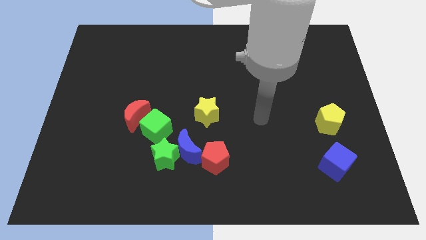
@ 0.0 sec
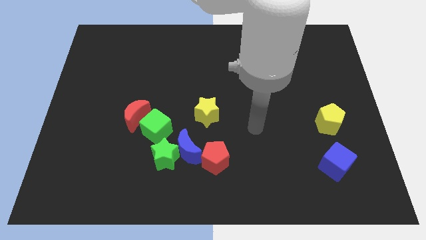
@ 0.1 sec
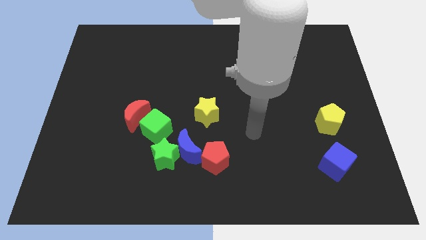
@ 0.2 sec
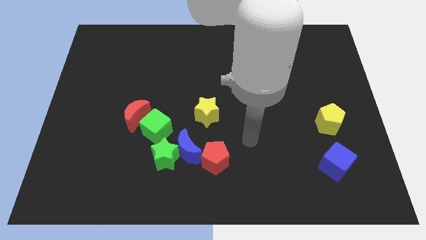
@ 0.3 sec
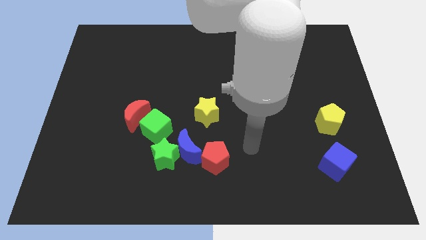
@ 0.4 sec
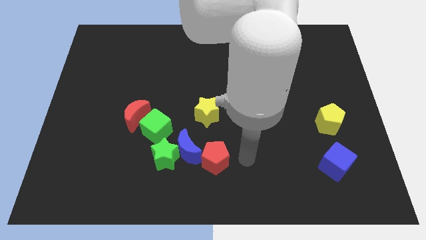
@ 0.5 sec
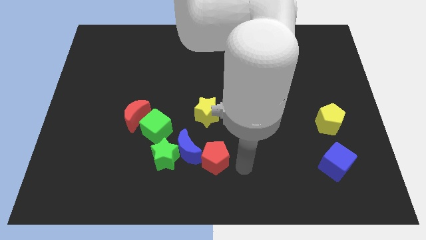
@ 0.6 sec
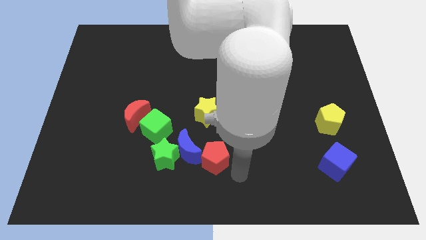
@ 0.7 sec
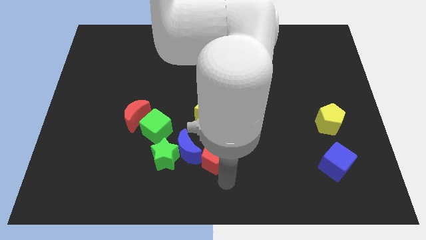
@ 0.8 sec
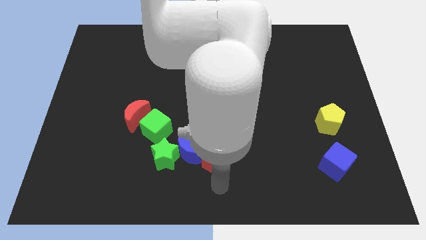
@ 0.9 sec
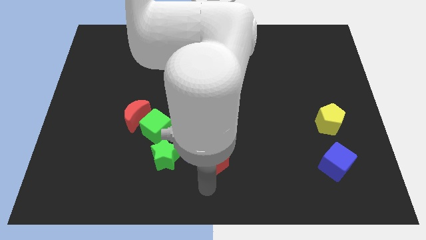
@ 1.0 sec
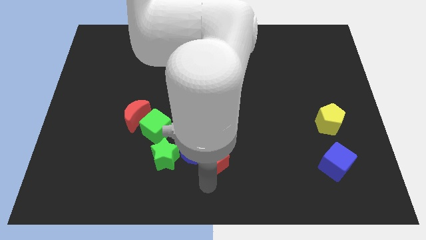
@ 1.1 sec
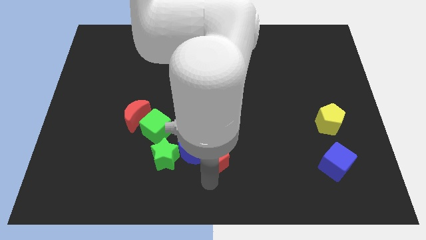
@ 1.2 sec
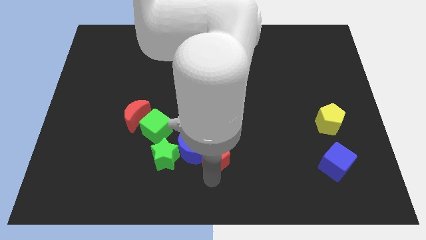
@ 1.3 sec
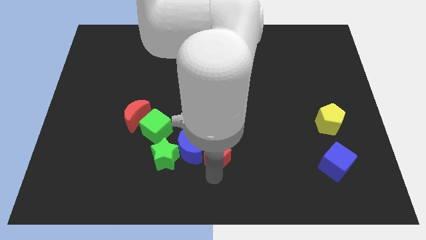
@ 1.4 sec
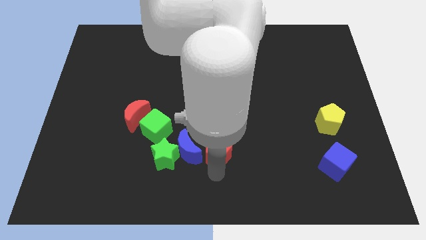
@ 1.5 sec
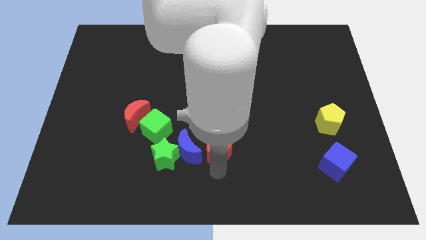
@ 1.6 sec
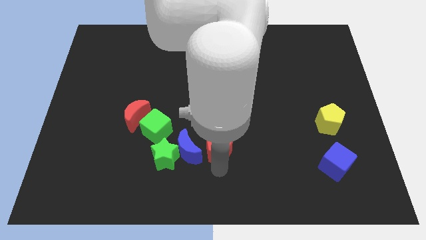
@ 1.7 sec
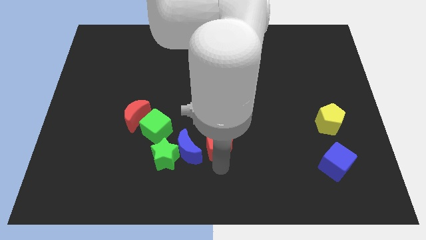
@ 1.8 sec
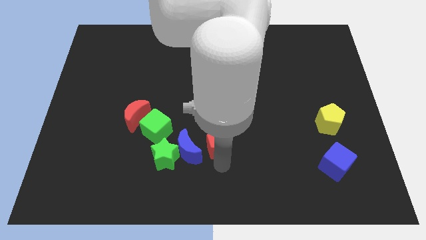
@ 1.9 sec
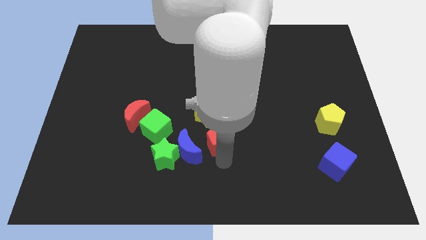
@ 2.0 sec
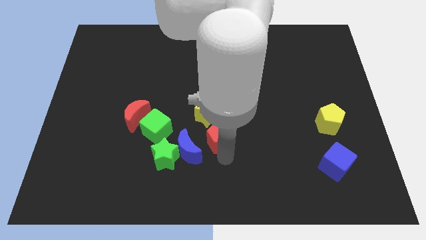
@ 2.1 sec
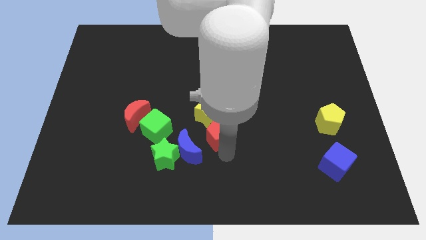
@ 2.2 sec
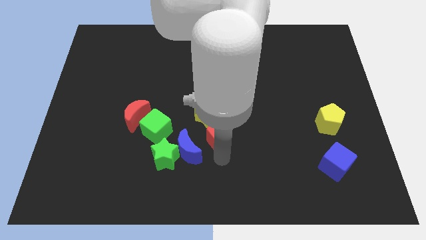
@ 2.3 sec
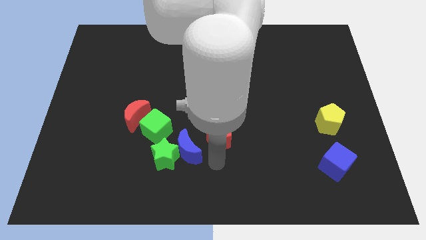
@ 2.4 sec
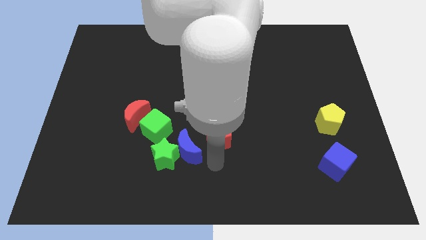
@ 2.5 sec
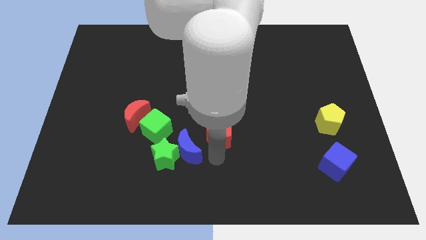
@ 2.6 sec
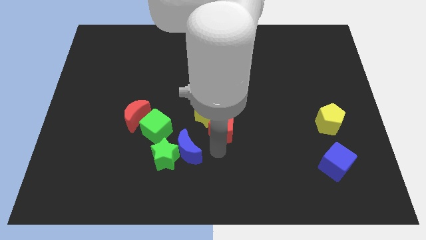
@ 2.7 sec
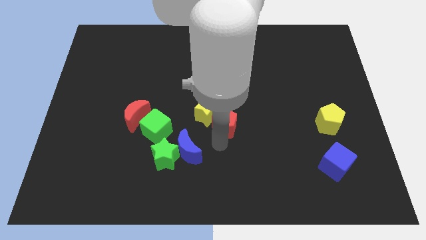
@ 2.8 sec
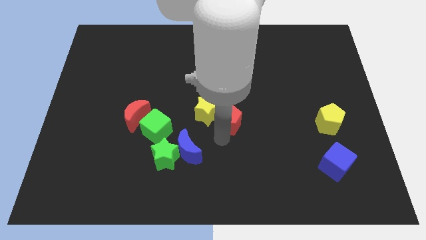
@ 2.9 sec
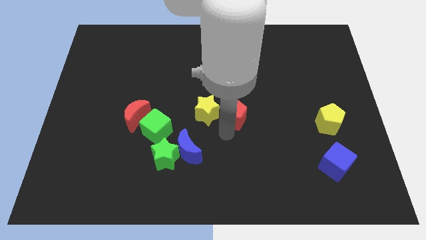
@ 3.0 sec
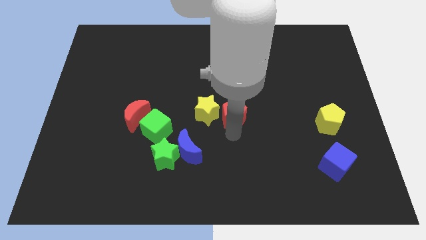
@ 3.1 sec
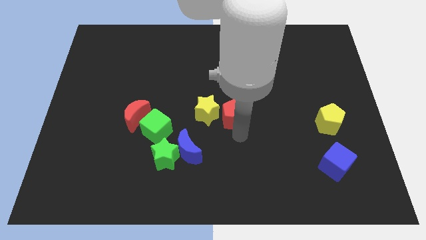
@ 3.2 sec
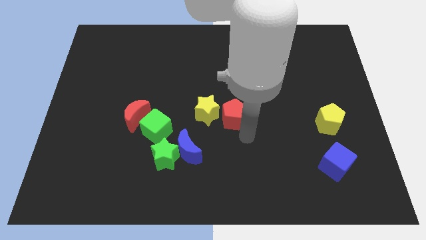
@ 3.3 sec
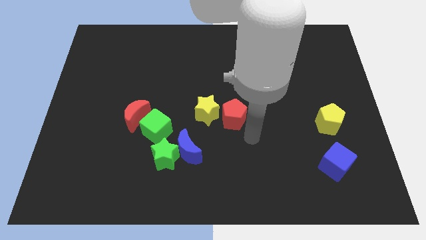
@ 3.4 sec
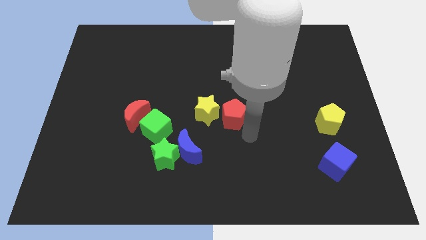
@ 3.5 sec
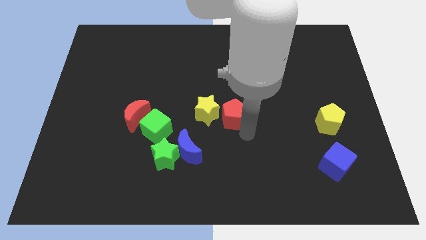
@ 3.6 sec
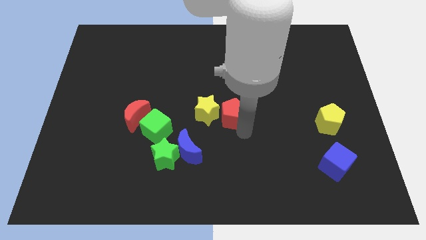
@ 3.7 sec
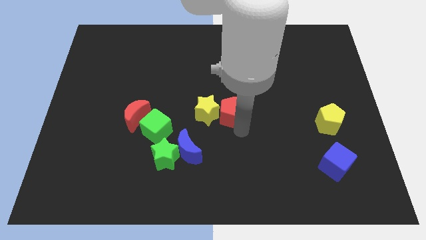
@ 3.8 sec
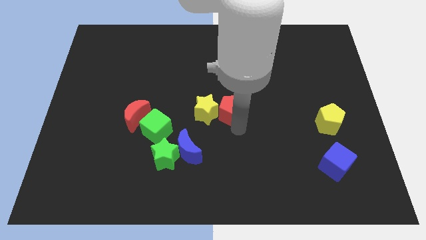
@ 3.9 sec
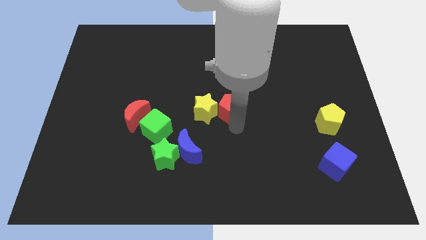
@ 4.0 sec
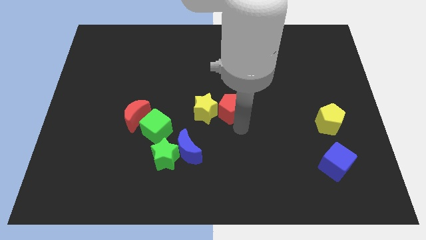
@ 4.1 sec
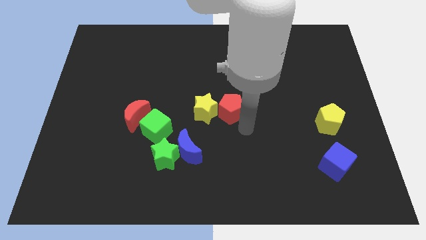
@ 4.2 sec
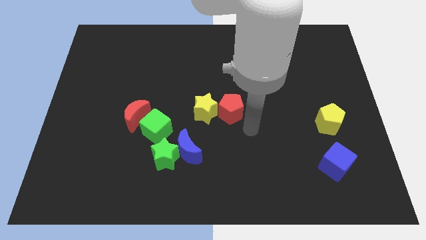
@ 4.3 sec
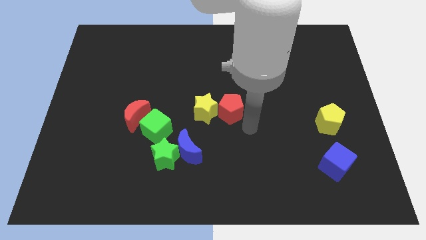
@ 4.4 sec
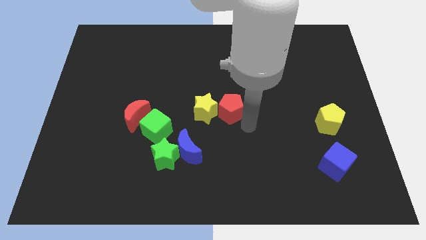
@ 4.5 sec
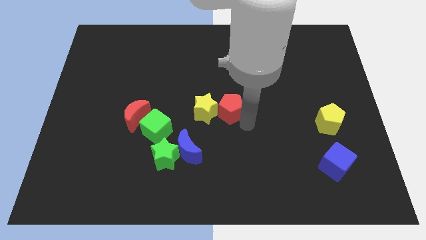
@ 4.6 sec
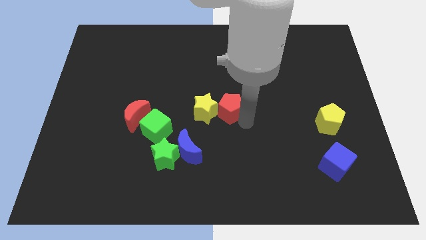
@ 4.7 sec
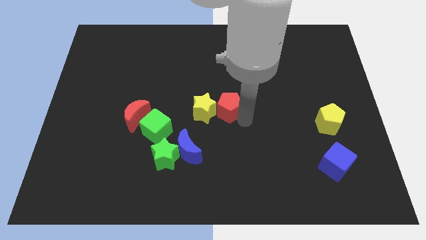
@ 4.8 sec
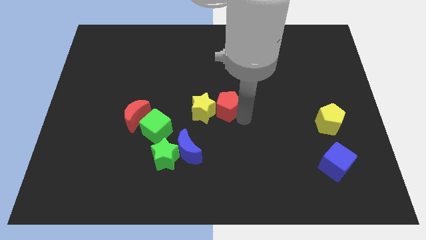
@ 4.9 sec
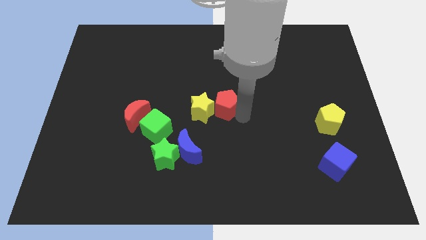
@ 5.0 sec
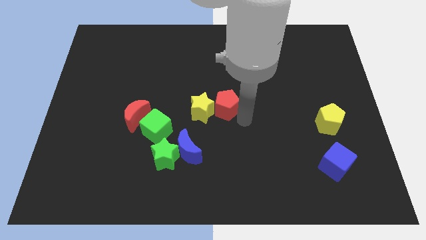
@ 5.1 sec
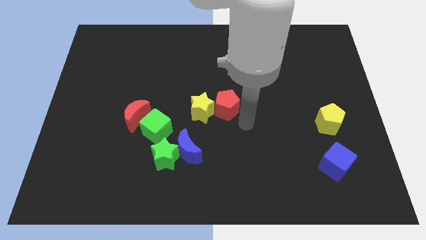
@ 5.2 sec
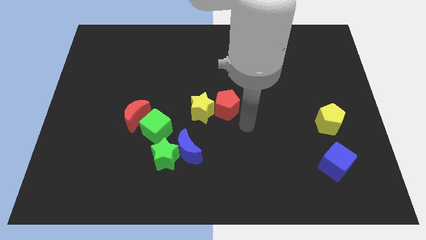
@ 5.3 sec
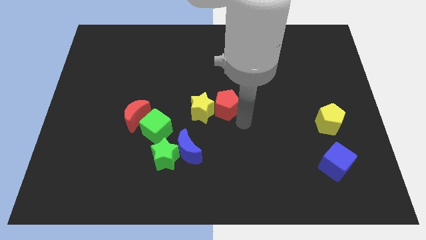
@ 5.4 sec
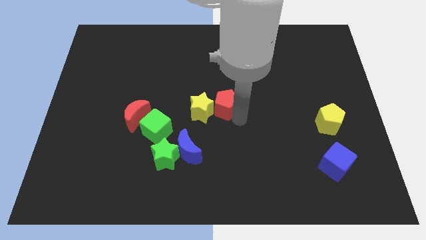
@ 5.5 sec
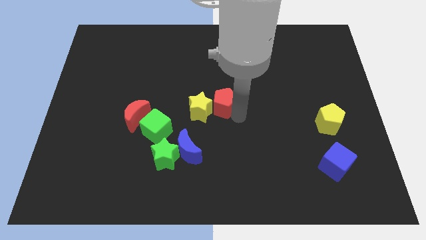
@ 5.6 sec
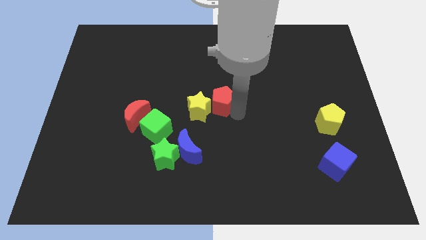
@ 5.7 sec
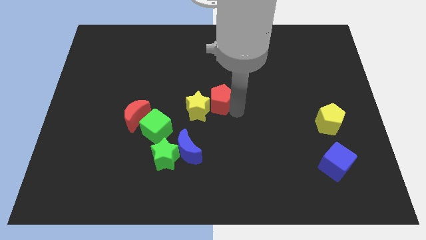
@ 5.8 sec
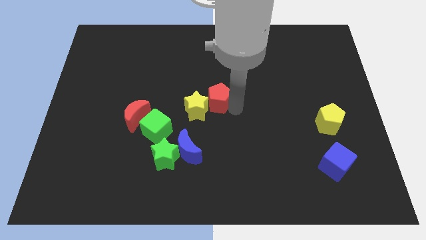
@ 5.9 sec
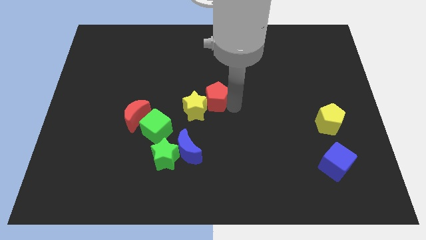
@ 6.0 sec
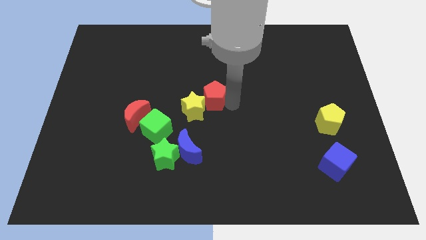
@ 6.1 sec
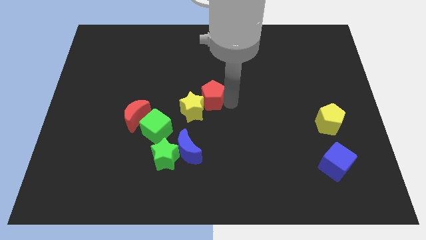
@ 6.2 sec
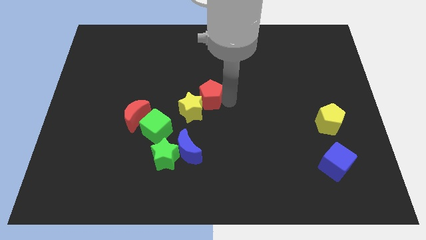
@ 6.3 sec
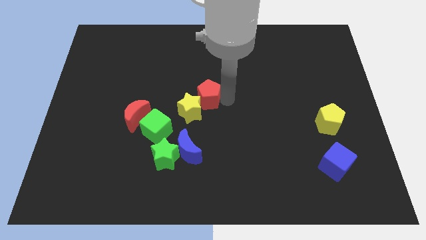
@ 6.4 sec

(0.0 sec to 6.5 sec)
move the red pentagon a bit upwards and left diagonally

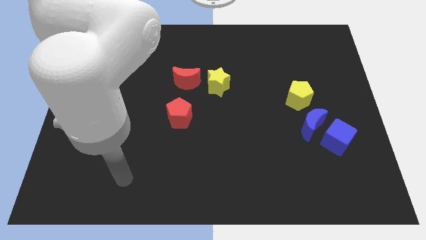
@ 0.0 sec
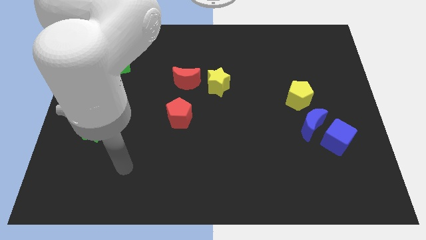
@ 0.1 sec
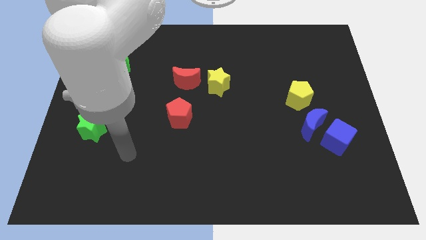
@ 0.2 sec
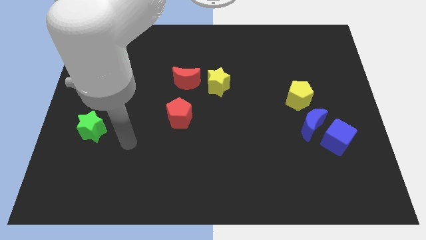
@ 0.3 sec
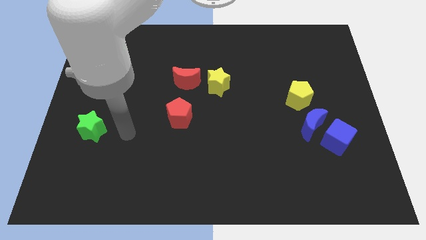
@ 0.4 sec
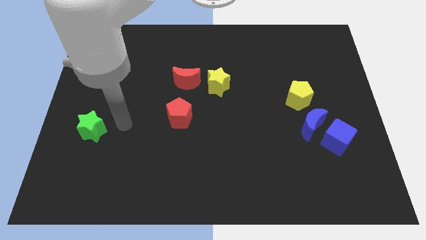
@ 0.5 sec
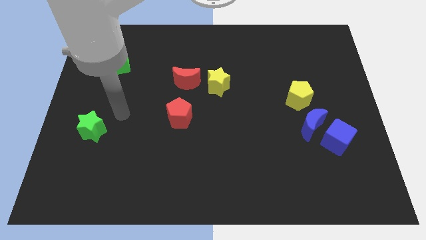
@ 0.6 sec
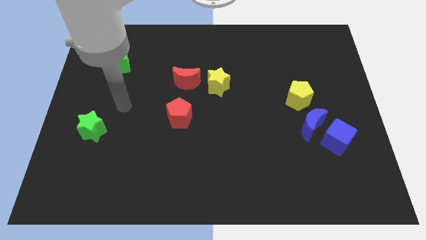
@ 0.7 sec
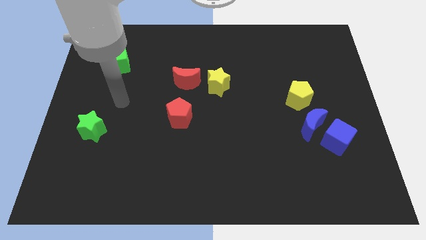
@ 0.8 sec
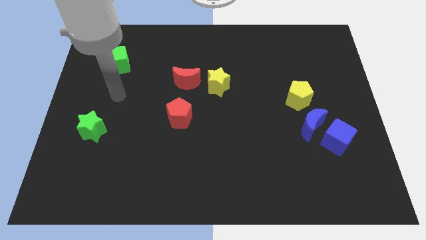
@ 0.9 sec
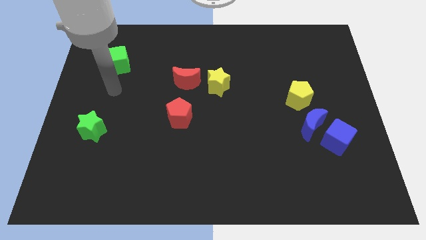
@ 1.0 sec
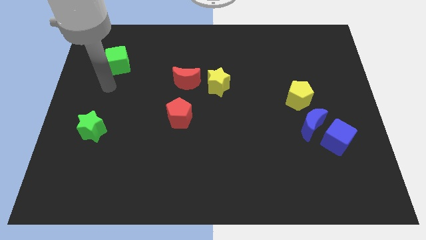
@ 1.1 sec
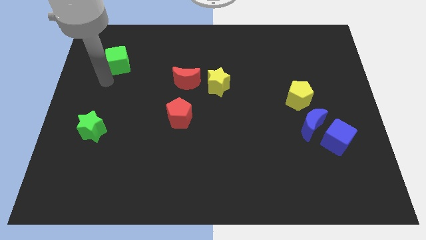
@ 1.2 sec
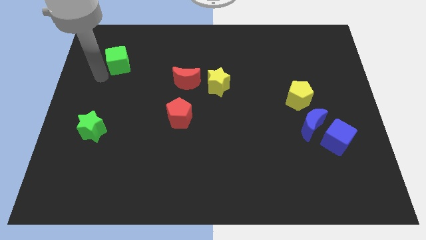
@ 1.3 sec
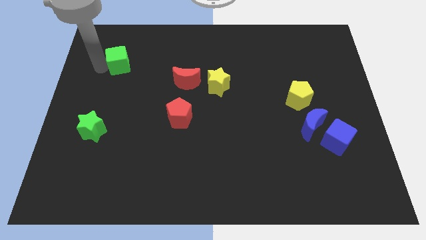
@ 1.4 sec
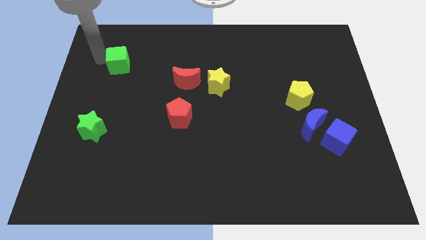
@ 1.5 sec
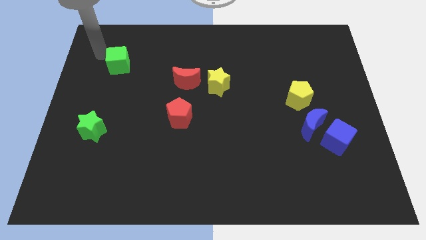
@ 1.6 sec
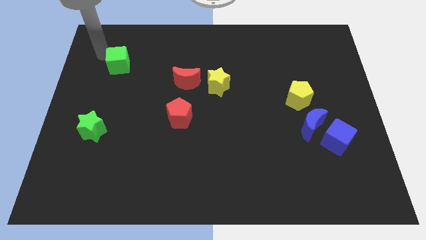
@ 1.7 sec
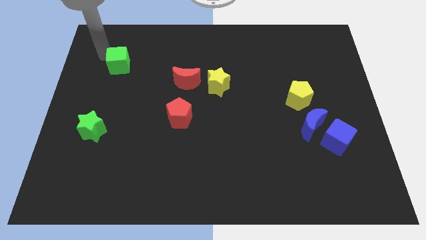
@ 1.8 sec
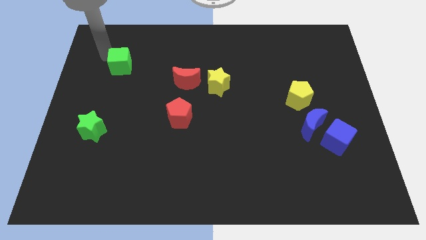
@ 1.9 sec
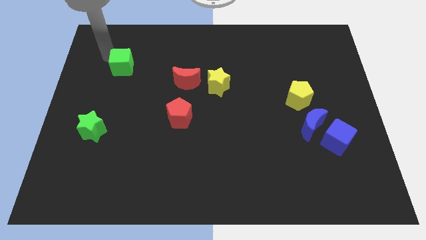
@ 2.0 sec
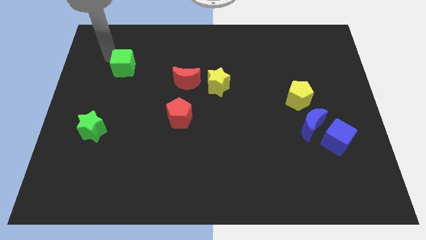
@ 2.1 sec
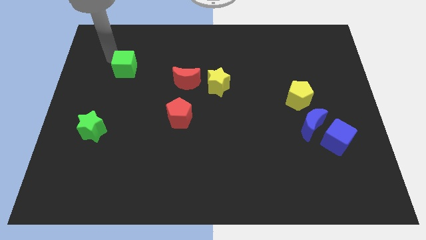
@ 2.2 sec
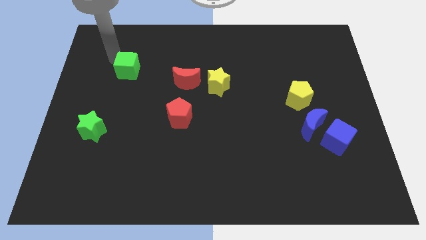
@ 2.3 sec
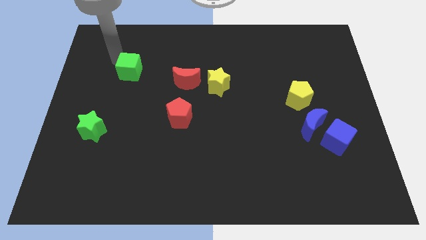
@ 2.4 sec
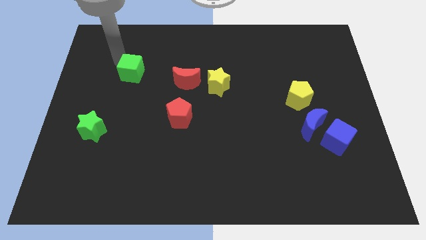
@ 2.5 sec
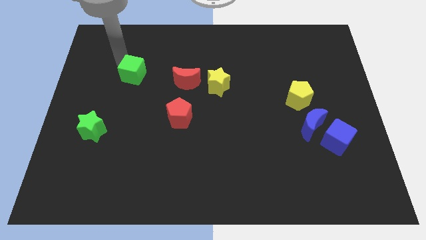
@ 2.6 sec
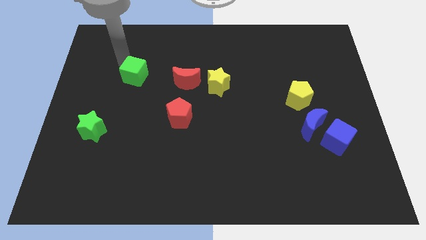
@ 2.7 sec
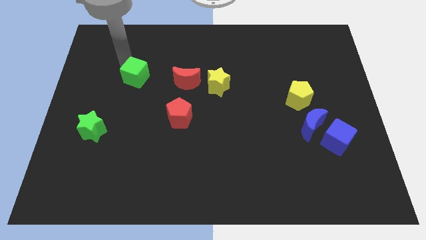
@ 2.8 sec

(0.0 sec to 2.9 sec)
slightly move the green cube downwards and right
